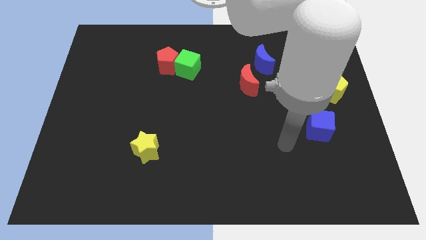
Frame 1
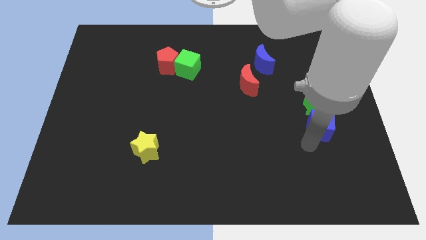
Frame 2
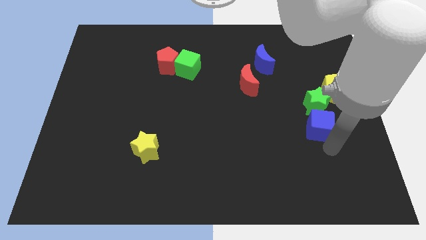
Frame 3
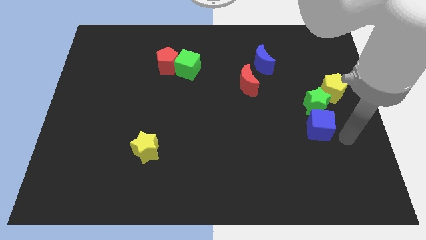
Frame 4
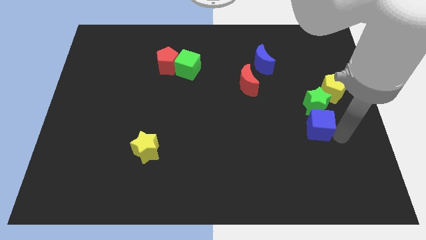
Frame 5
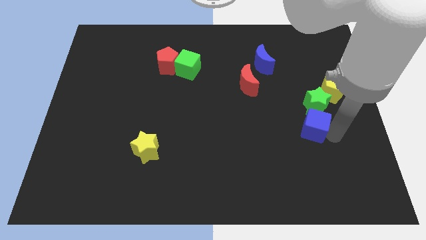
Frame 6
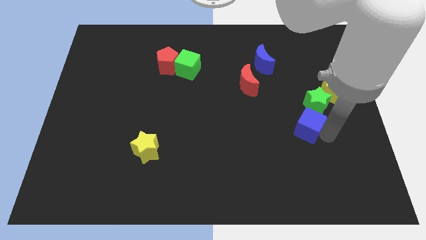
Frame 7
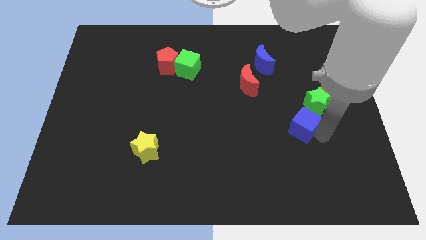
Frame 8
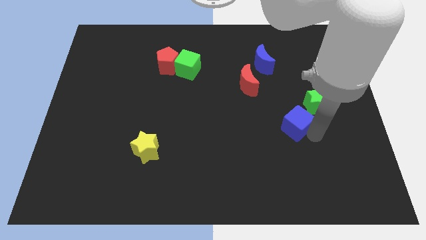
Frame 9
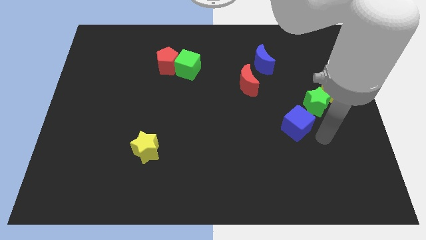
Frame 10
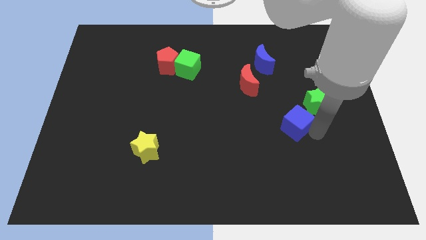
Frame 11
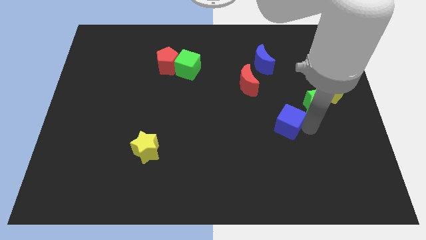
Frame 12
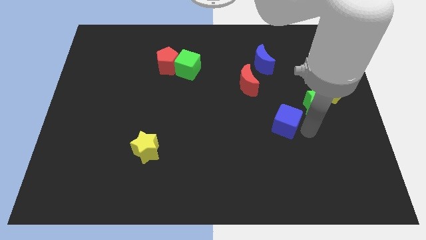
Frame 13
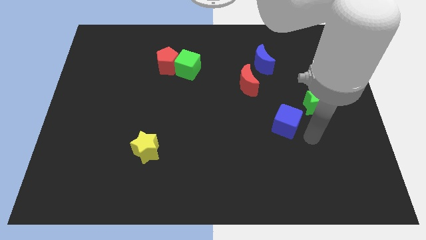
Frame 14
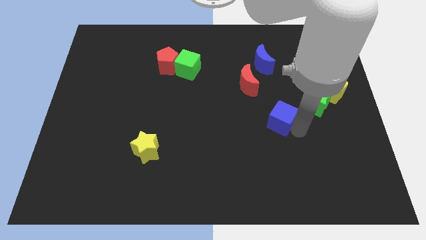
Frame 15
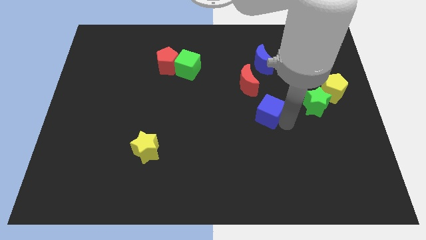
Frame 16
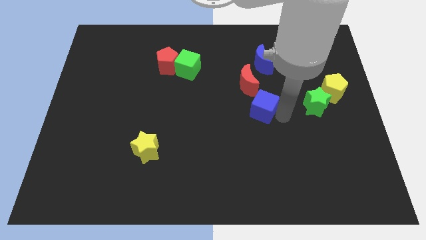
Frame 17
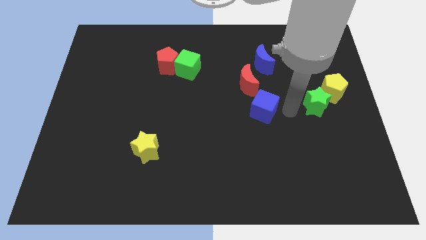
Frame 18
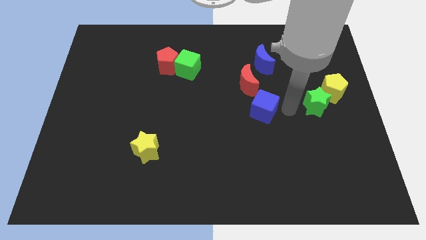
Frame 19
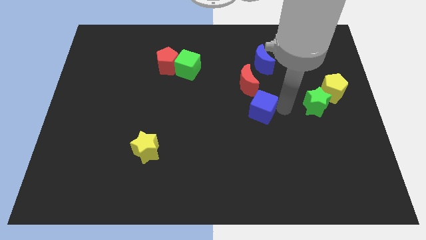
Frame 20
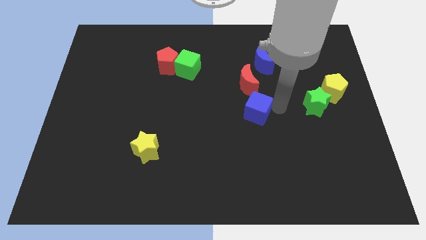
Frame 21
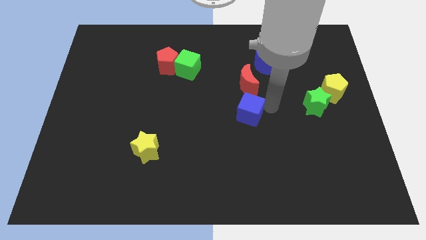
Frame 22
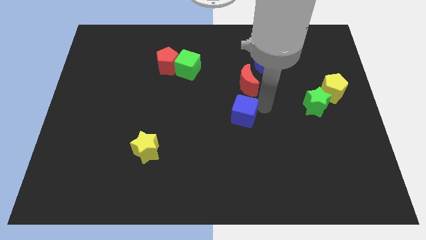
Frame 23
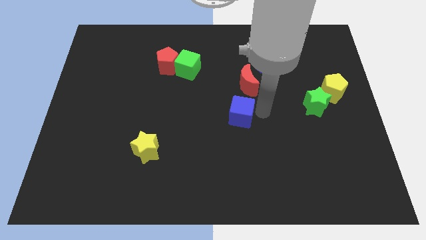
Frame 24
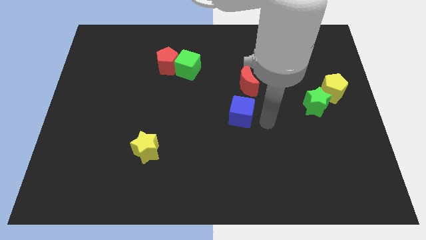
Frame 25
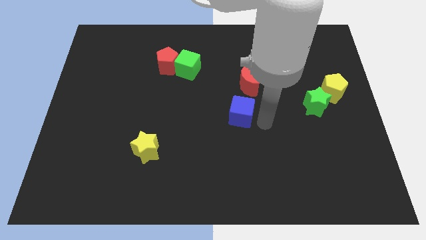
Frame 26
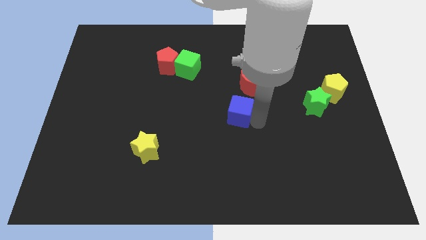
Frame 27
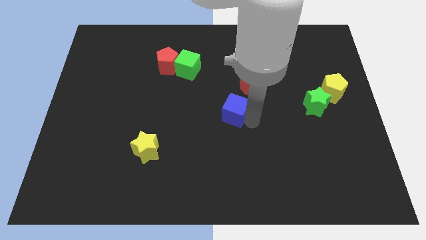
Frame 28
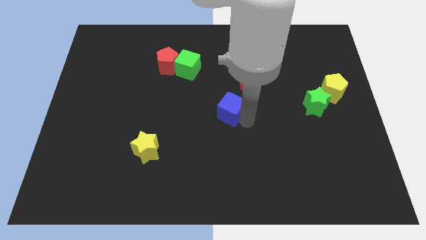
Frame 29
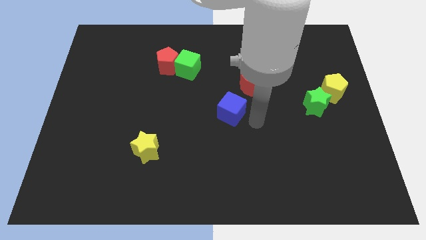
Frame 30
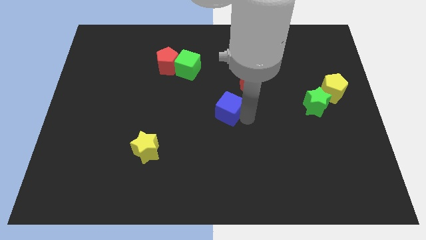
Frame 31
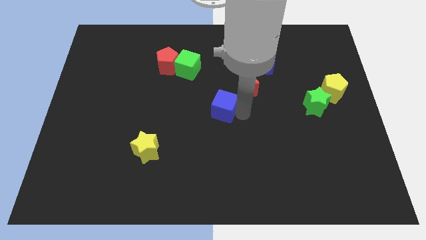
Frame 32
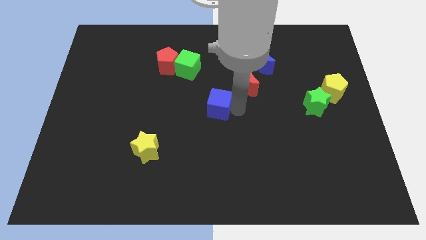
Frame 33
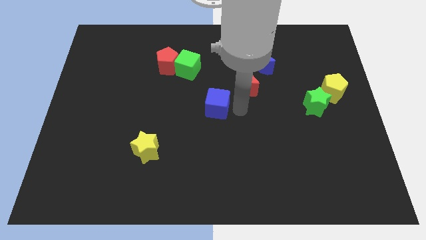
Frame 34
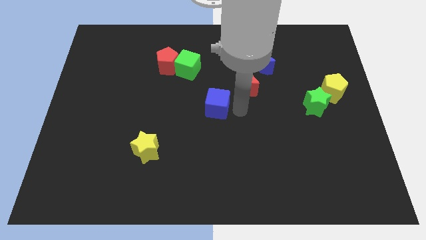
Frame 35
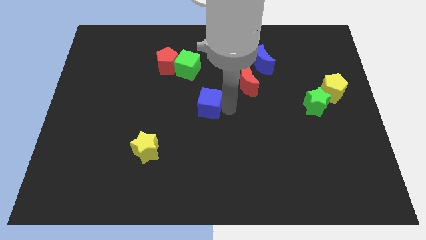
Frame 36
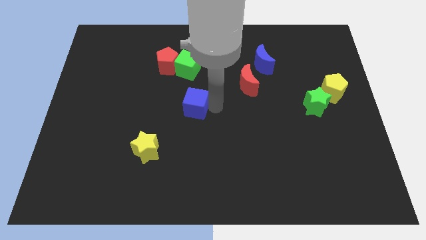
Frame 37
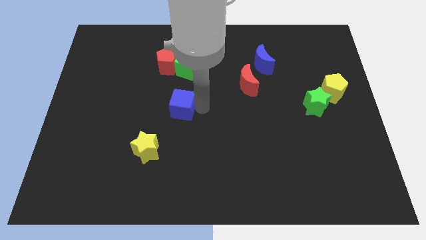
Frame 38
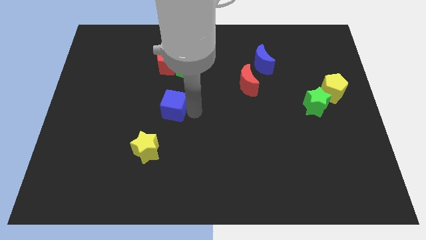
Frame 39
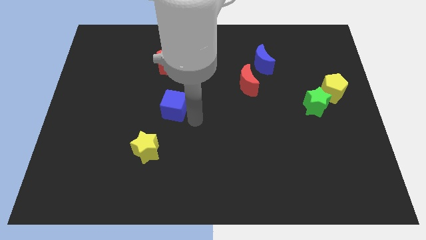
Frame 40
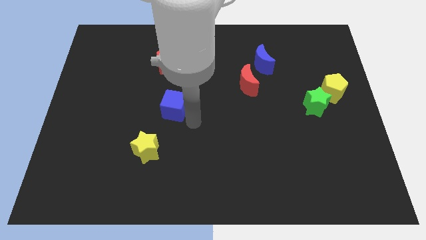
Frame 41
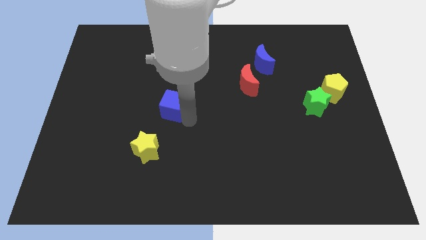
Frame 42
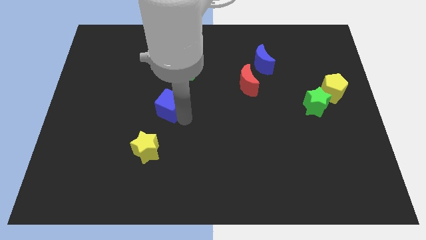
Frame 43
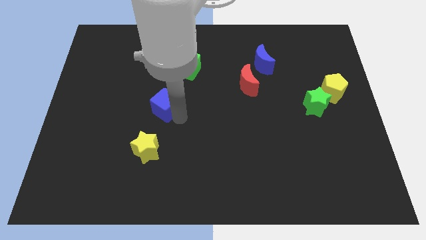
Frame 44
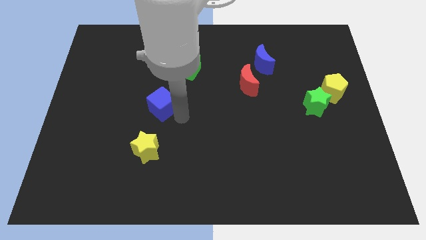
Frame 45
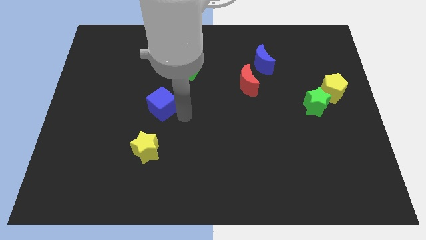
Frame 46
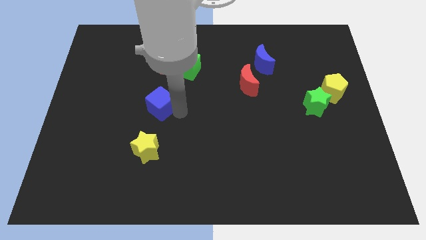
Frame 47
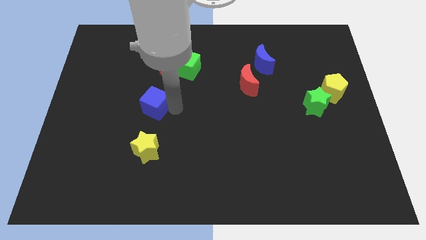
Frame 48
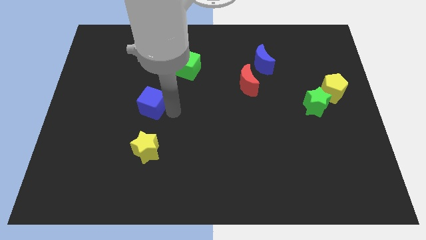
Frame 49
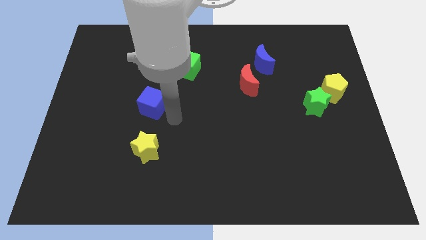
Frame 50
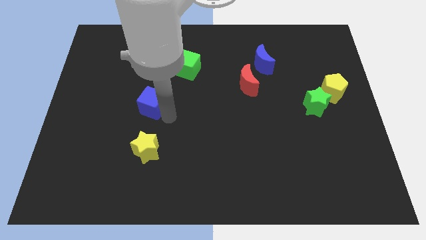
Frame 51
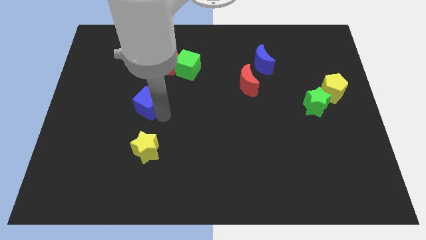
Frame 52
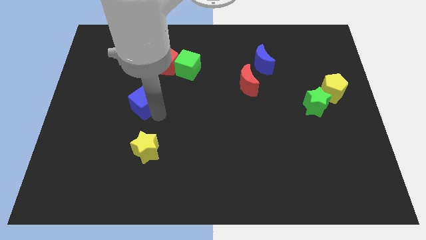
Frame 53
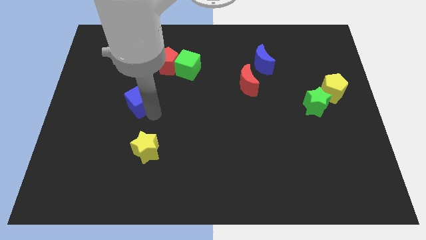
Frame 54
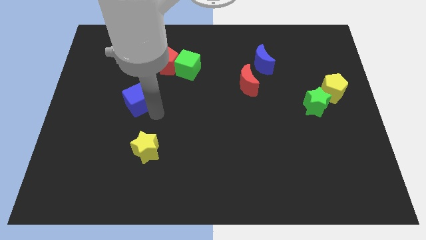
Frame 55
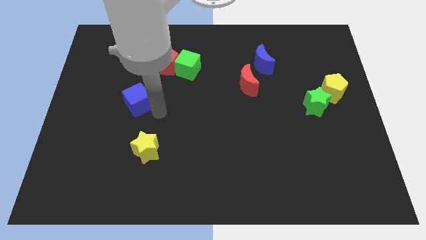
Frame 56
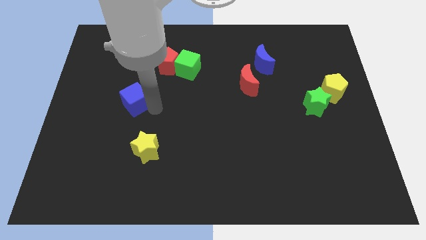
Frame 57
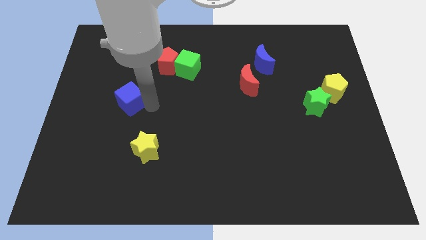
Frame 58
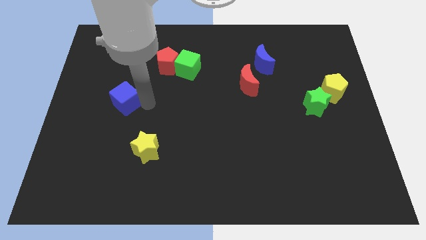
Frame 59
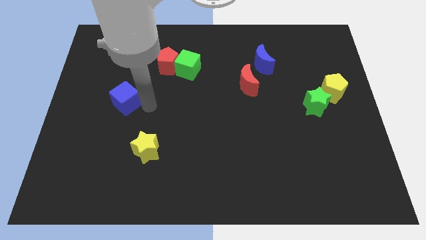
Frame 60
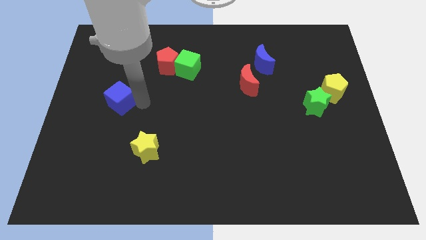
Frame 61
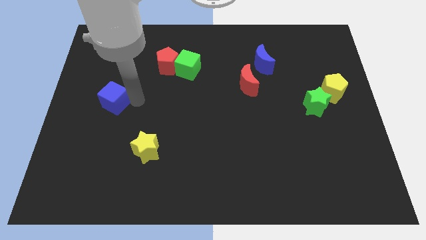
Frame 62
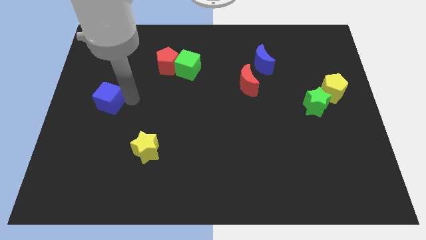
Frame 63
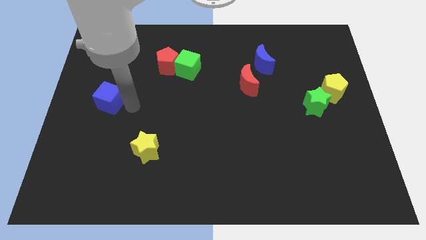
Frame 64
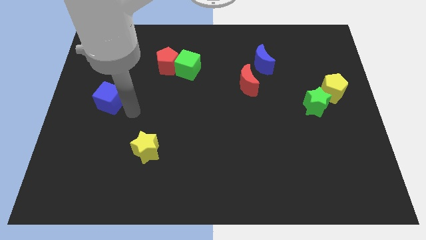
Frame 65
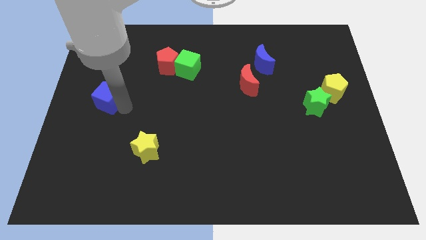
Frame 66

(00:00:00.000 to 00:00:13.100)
push the blue cube to the left side of the board

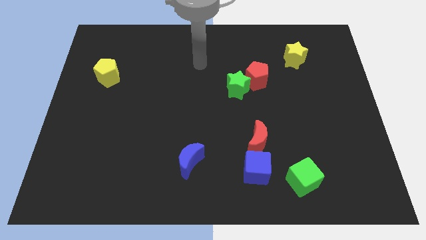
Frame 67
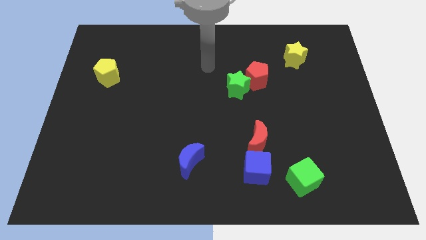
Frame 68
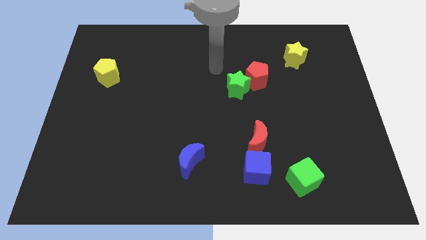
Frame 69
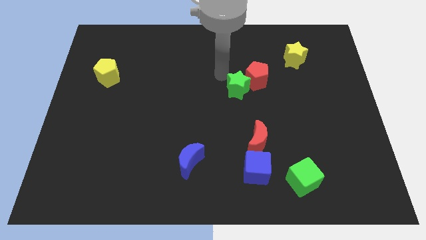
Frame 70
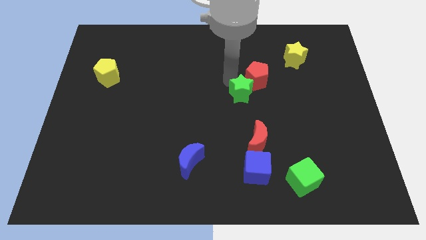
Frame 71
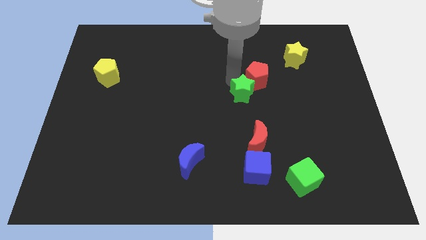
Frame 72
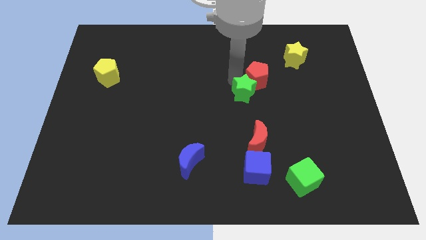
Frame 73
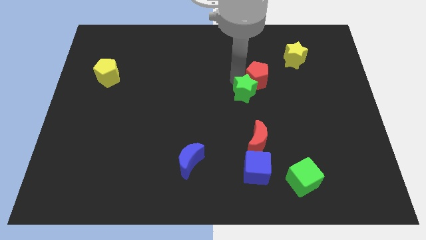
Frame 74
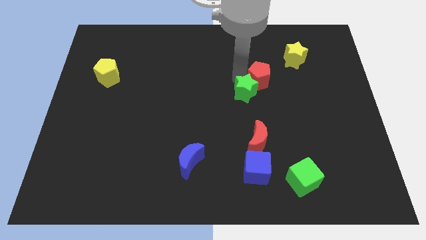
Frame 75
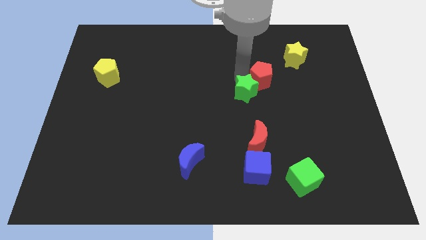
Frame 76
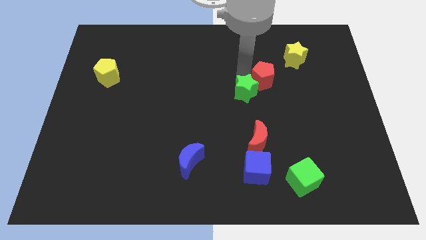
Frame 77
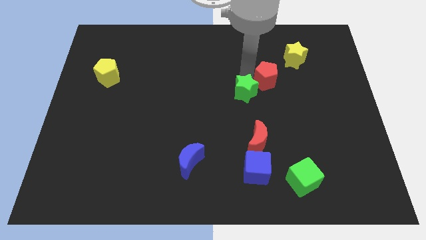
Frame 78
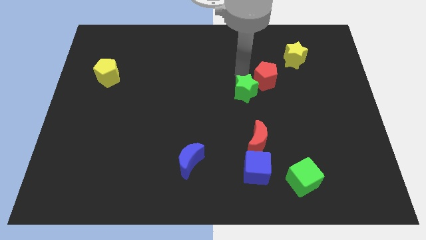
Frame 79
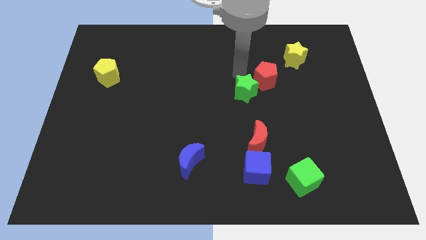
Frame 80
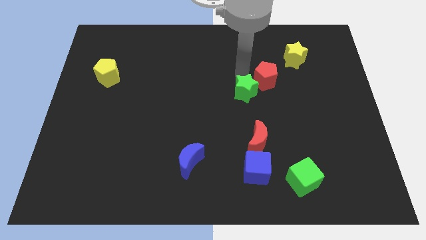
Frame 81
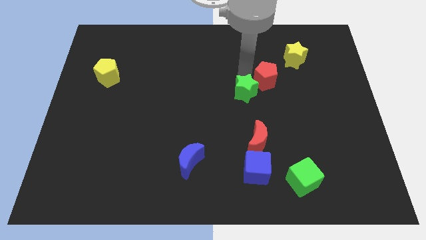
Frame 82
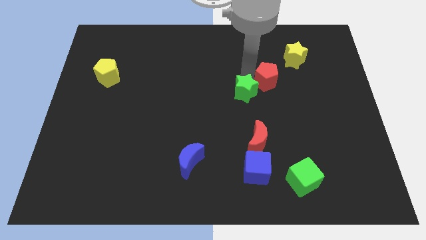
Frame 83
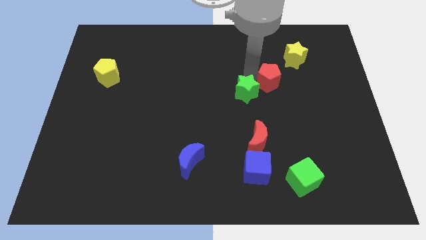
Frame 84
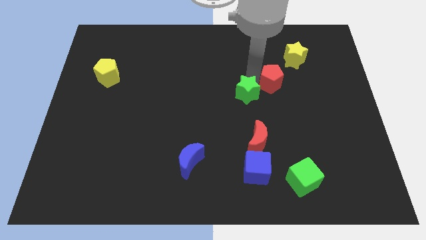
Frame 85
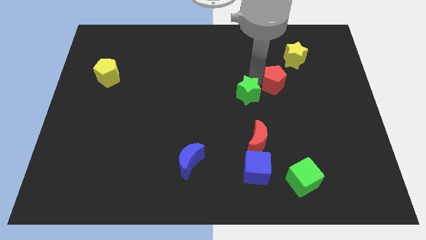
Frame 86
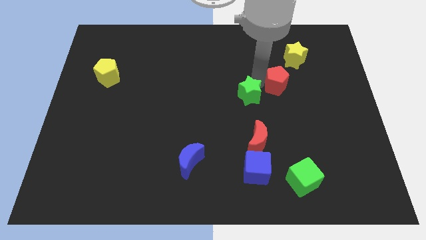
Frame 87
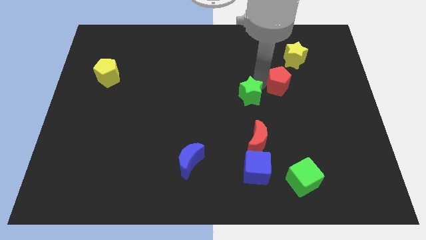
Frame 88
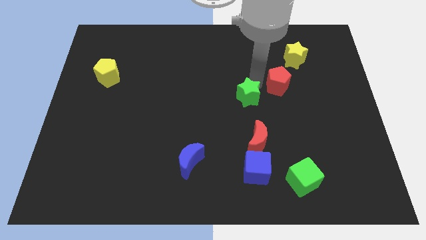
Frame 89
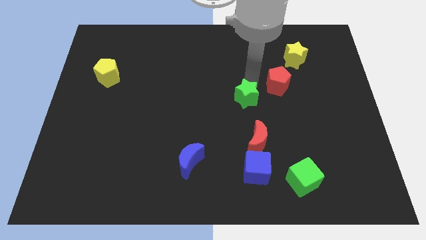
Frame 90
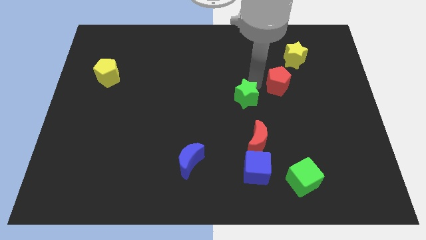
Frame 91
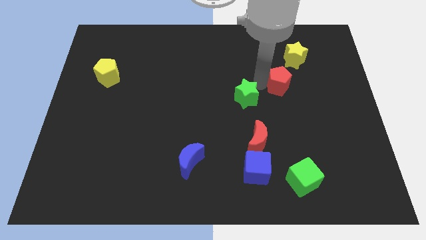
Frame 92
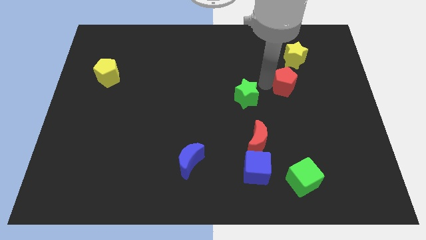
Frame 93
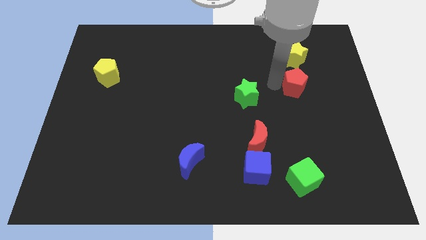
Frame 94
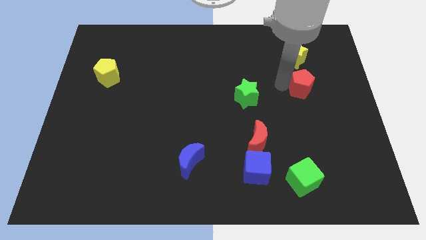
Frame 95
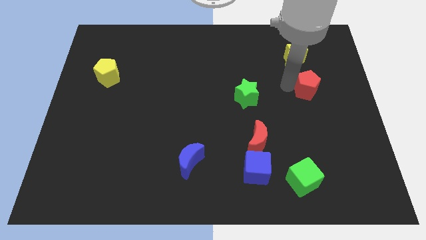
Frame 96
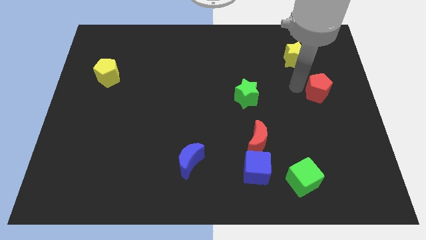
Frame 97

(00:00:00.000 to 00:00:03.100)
push the red pentagon to the right side
